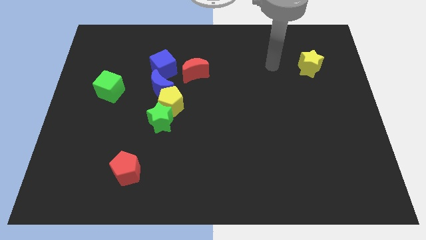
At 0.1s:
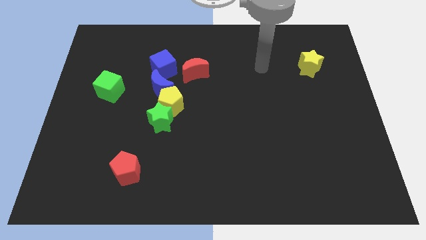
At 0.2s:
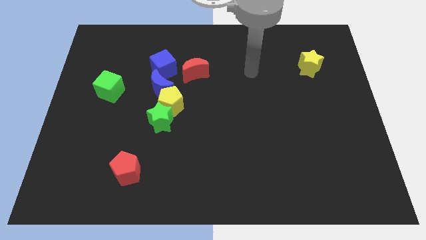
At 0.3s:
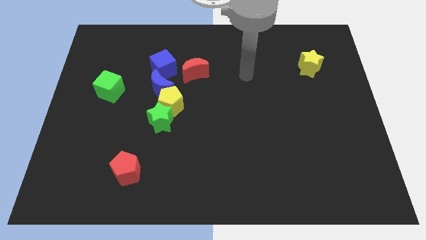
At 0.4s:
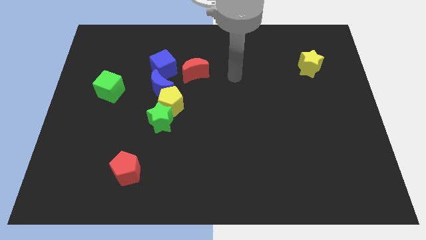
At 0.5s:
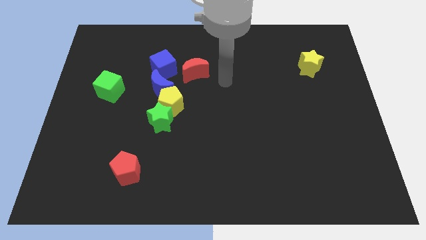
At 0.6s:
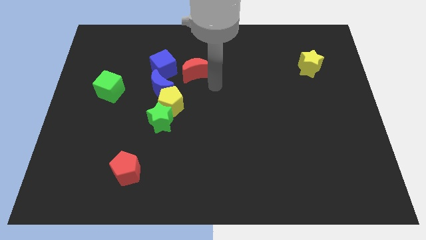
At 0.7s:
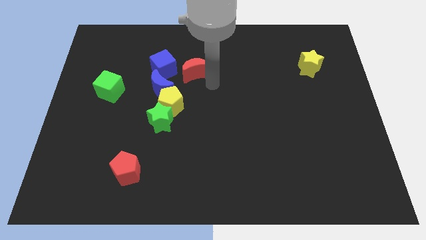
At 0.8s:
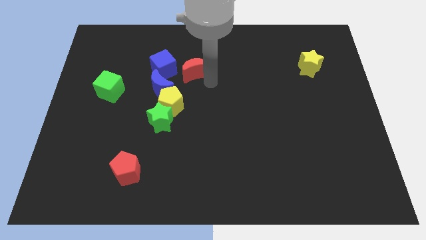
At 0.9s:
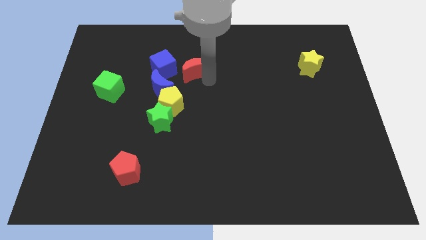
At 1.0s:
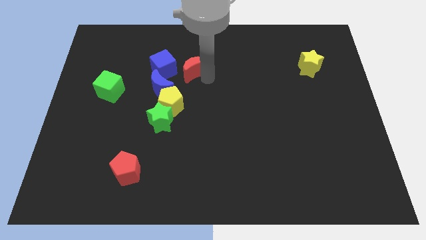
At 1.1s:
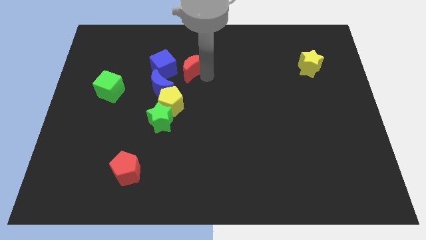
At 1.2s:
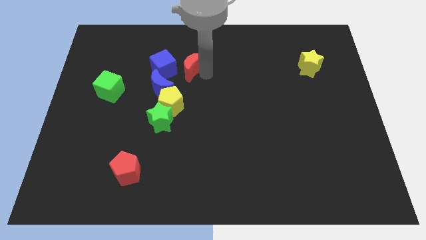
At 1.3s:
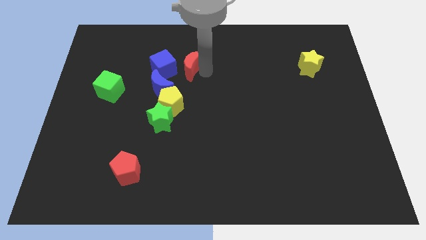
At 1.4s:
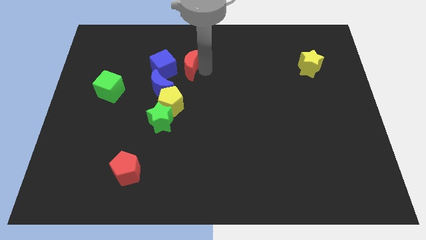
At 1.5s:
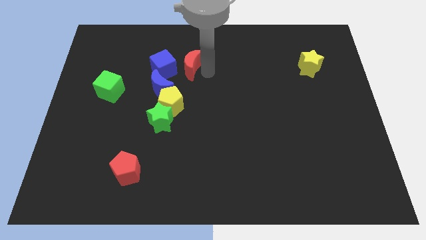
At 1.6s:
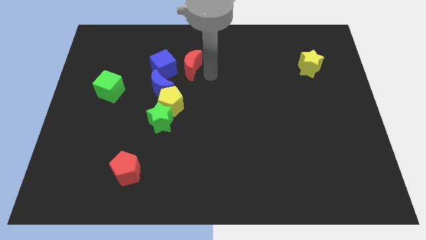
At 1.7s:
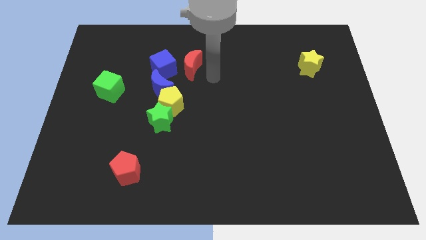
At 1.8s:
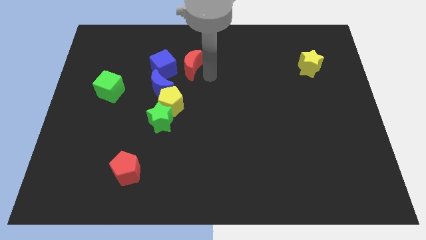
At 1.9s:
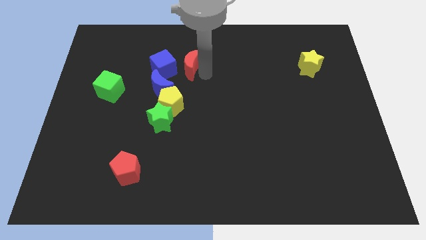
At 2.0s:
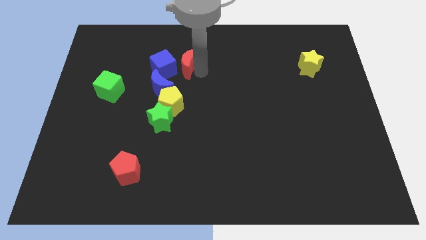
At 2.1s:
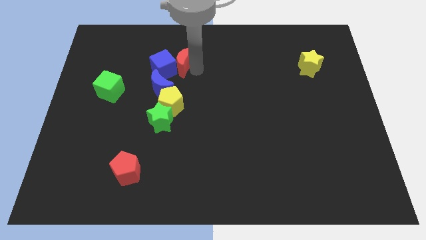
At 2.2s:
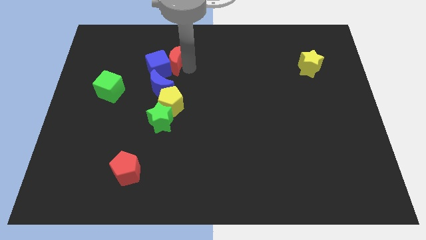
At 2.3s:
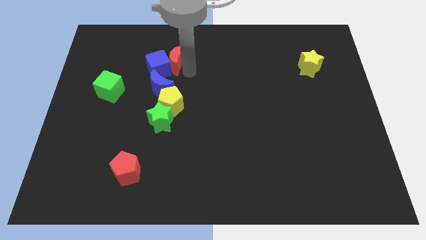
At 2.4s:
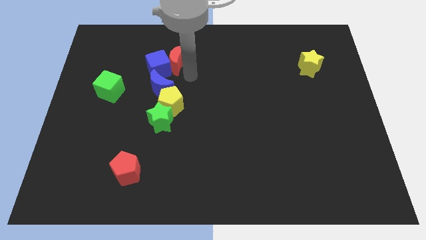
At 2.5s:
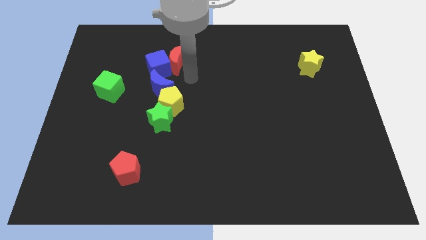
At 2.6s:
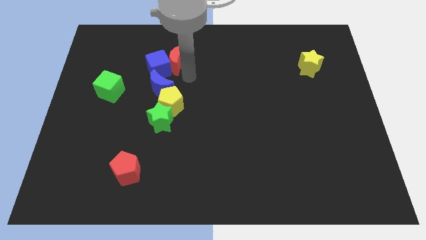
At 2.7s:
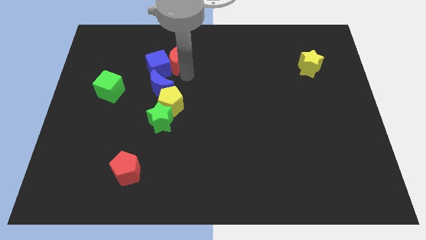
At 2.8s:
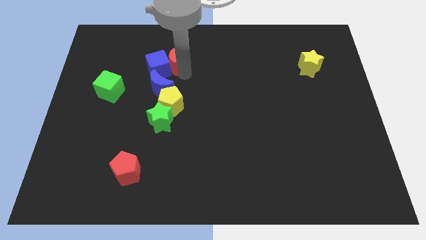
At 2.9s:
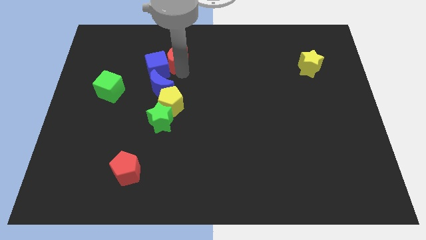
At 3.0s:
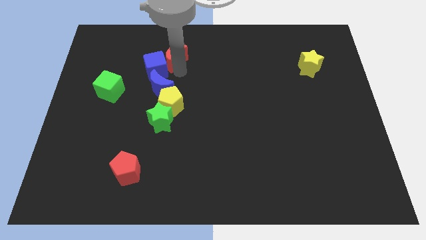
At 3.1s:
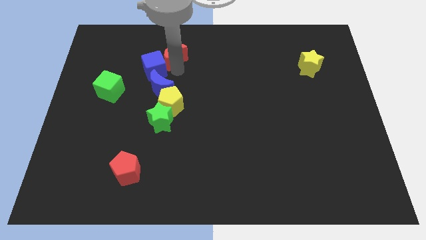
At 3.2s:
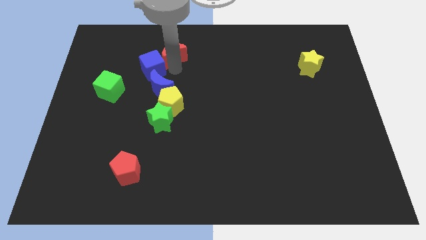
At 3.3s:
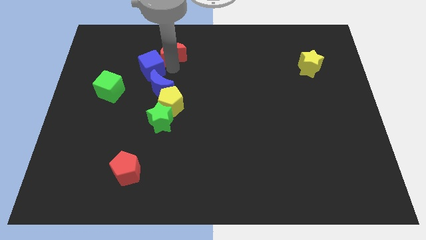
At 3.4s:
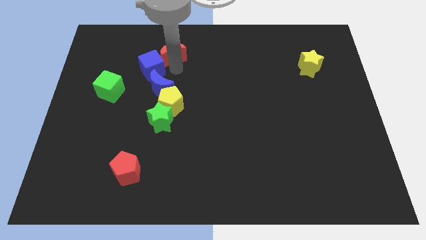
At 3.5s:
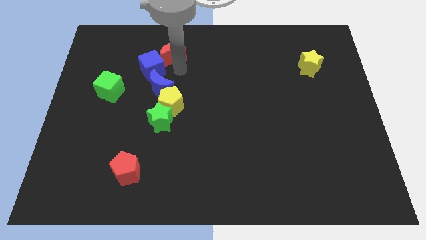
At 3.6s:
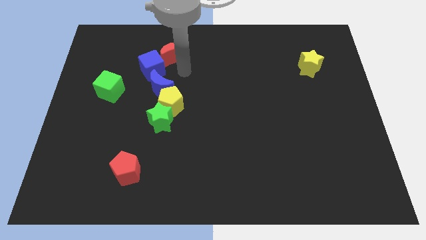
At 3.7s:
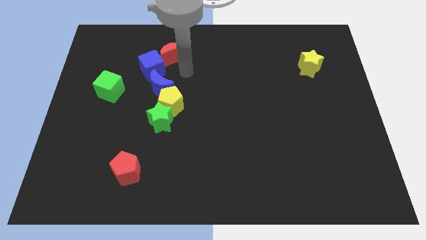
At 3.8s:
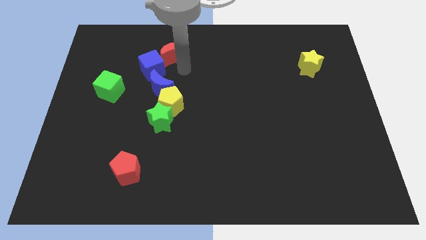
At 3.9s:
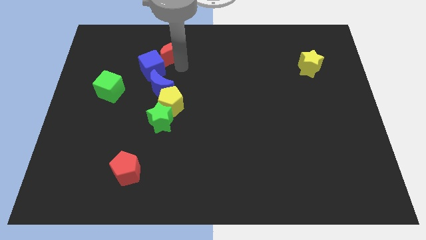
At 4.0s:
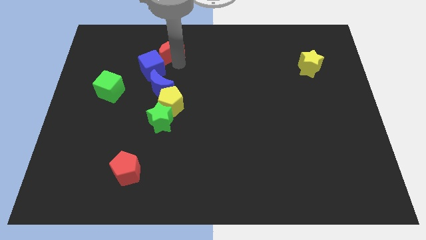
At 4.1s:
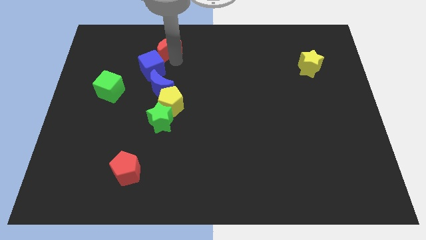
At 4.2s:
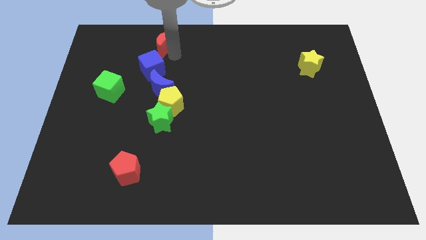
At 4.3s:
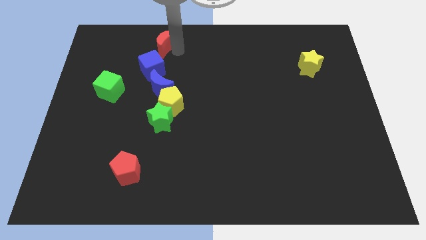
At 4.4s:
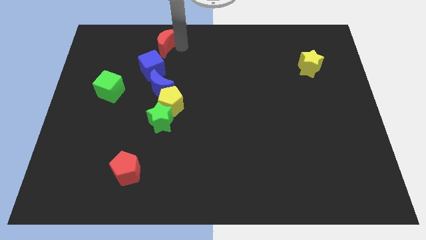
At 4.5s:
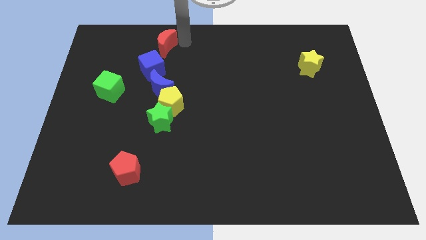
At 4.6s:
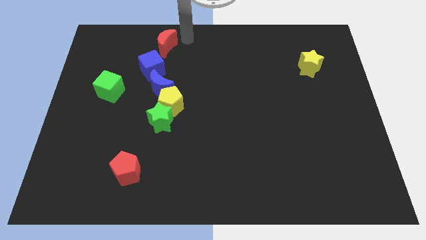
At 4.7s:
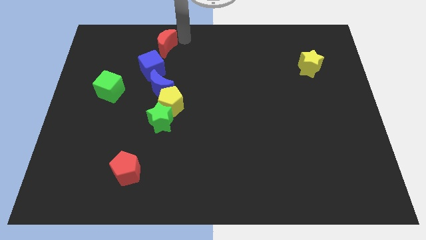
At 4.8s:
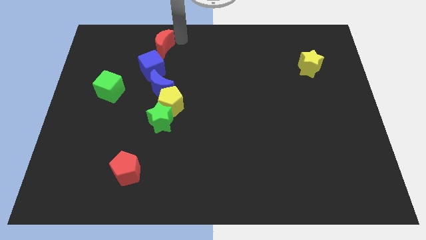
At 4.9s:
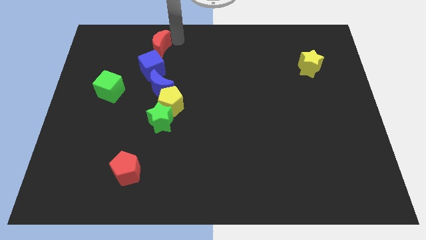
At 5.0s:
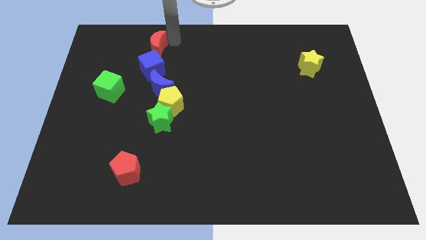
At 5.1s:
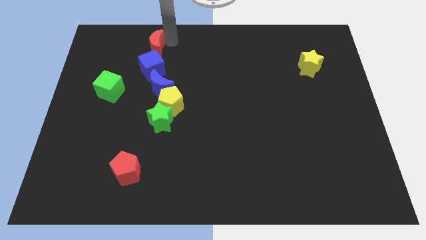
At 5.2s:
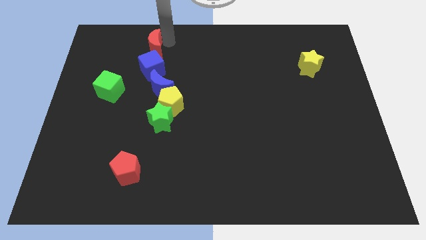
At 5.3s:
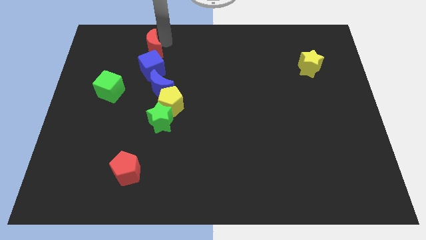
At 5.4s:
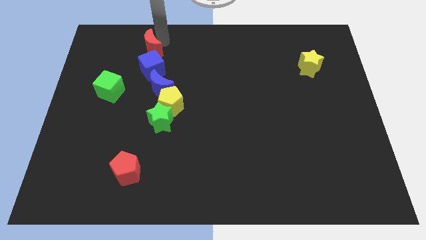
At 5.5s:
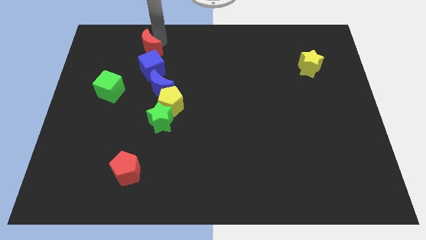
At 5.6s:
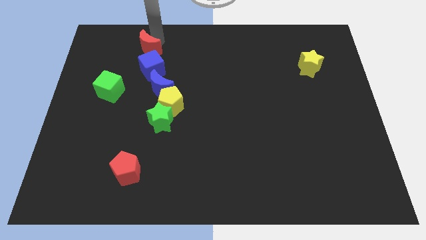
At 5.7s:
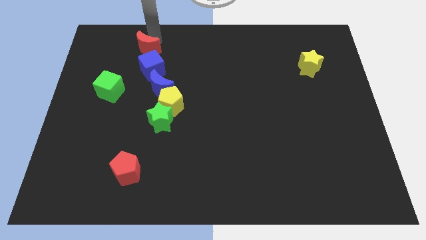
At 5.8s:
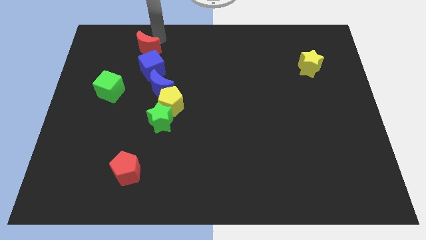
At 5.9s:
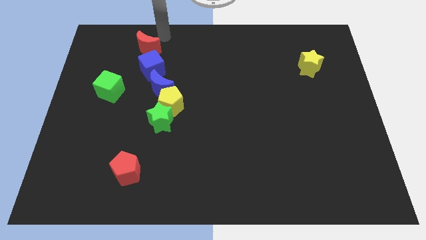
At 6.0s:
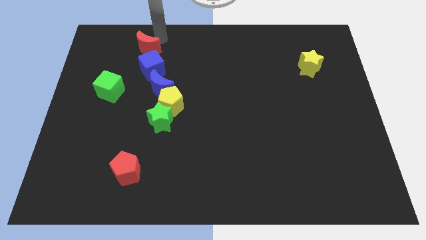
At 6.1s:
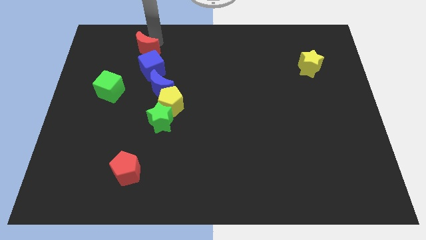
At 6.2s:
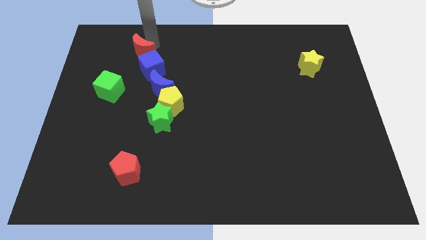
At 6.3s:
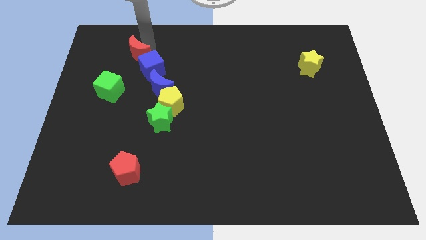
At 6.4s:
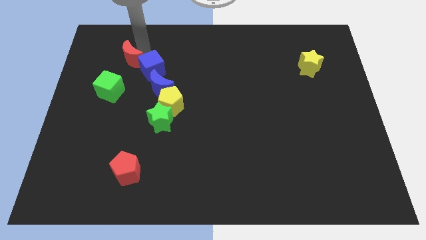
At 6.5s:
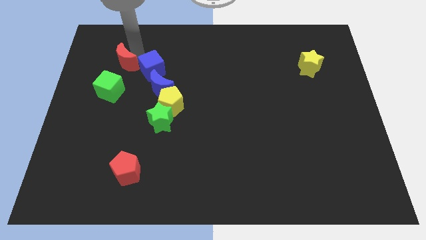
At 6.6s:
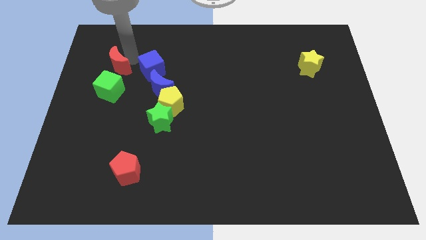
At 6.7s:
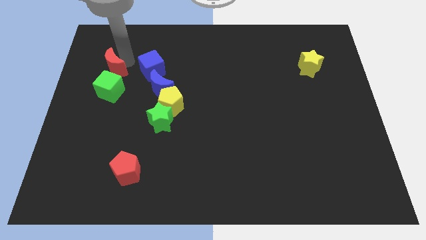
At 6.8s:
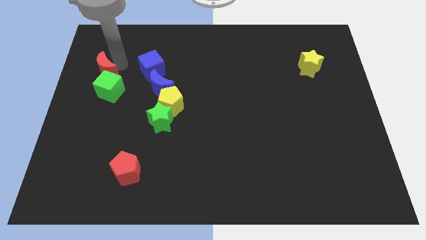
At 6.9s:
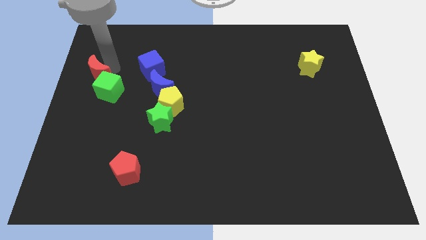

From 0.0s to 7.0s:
slide the red moon to the left side
